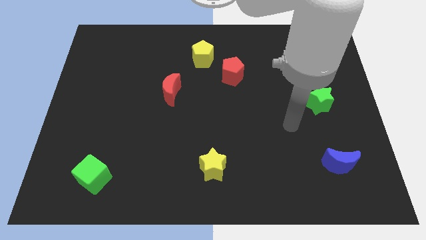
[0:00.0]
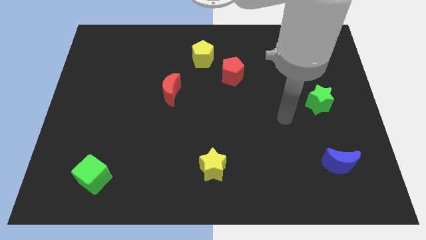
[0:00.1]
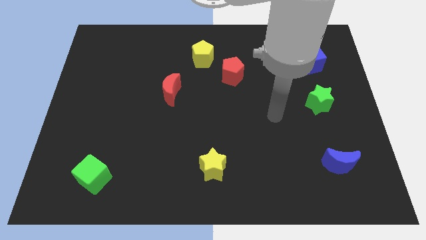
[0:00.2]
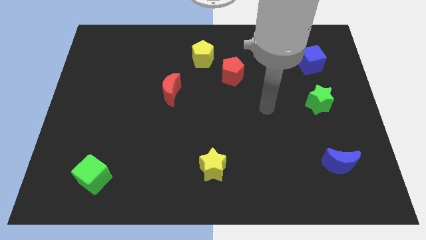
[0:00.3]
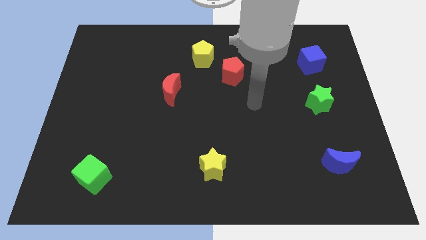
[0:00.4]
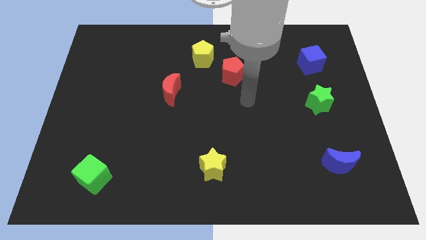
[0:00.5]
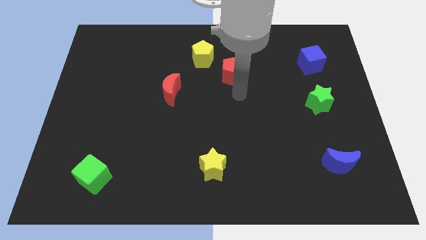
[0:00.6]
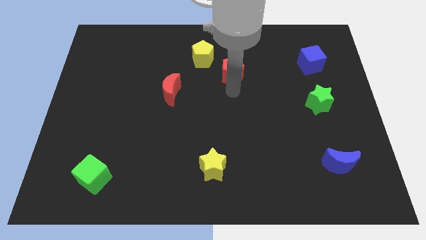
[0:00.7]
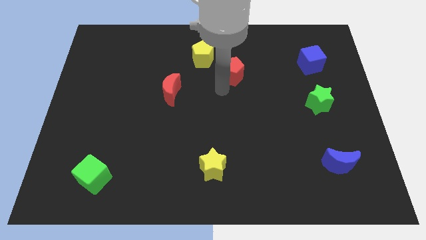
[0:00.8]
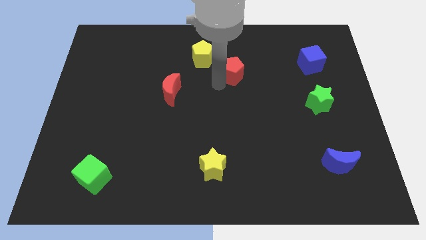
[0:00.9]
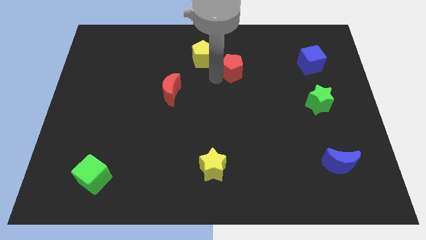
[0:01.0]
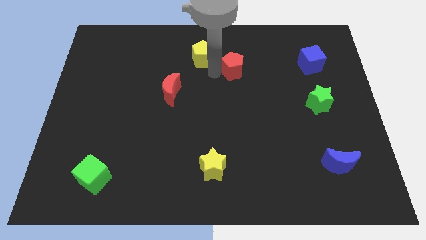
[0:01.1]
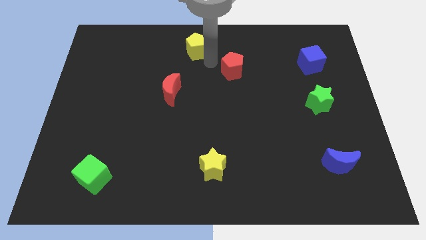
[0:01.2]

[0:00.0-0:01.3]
pull the red pentagon apart from the yellow pentagon

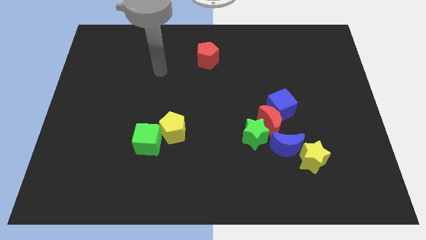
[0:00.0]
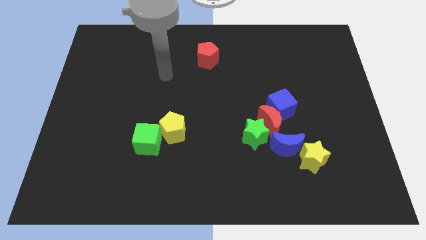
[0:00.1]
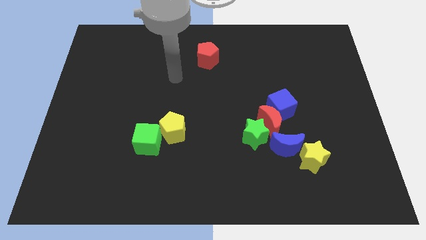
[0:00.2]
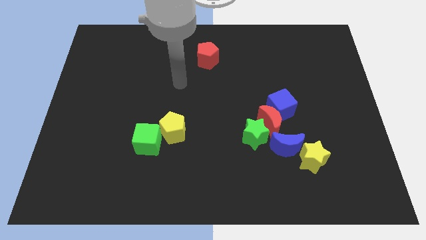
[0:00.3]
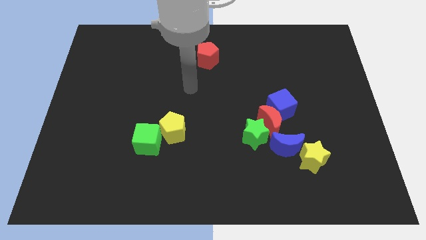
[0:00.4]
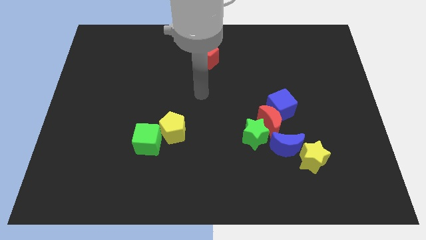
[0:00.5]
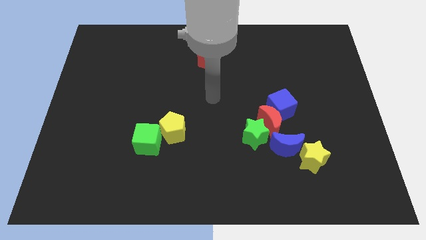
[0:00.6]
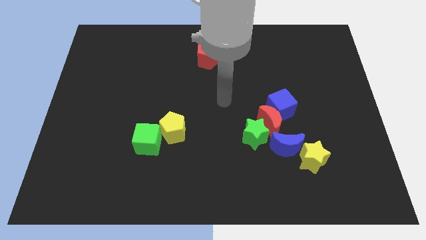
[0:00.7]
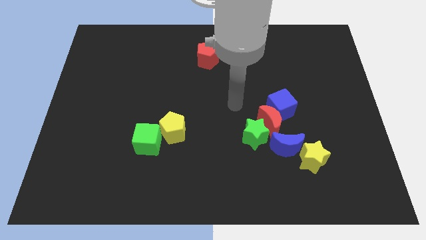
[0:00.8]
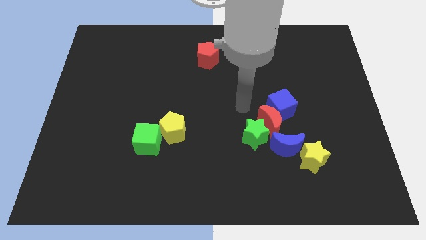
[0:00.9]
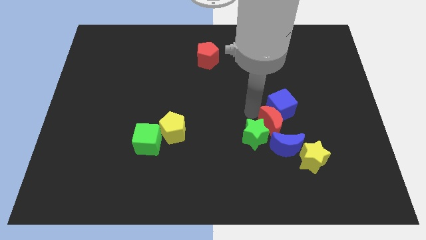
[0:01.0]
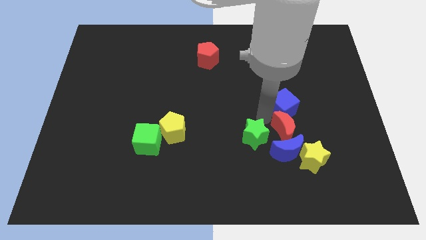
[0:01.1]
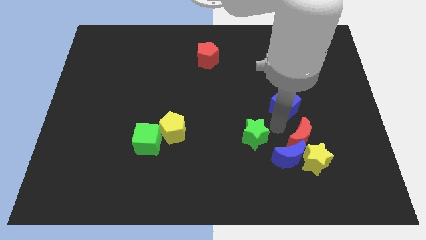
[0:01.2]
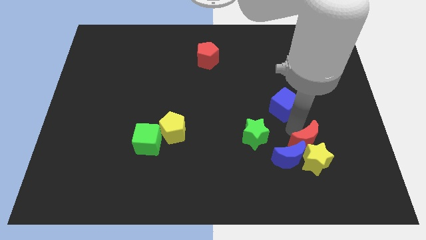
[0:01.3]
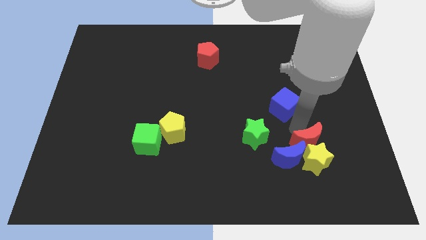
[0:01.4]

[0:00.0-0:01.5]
separate the blue cube from the red moon

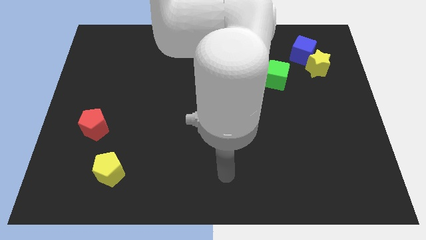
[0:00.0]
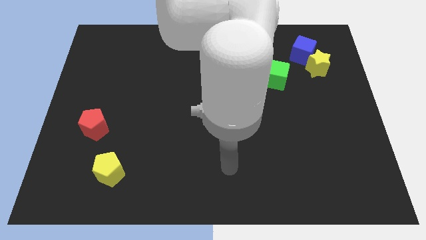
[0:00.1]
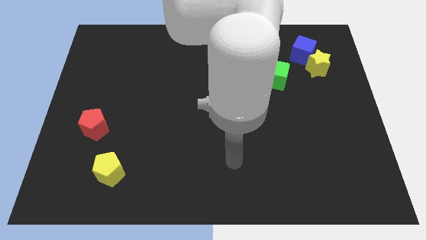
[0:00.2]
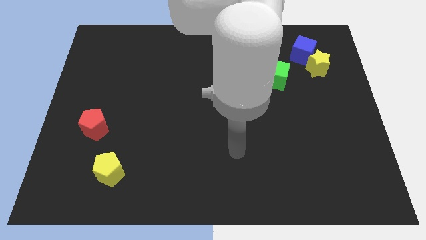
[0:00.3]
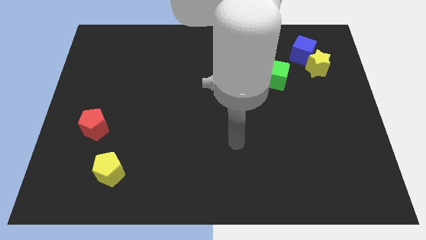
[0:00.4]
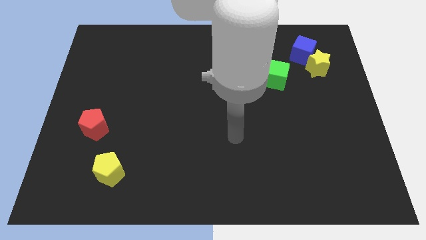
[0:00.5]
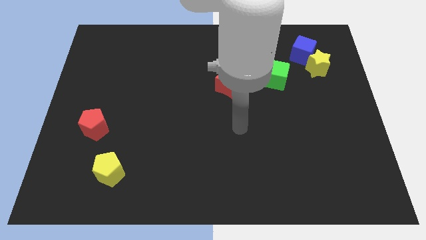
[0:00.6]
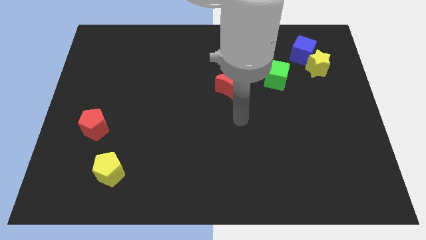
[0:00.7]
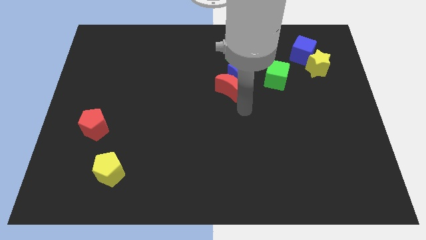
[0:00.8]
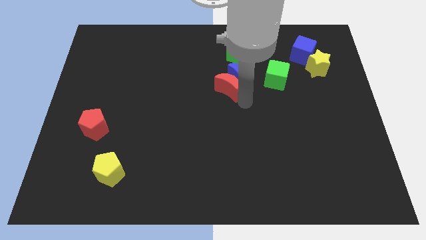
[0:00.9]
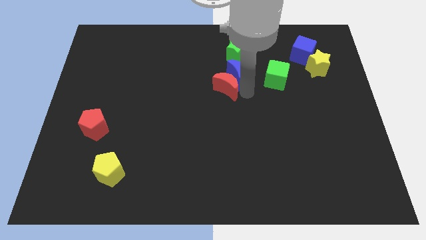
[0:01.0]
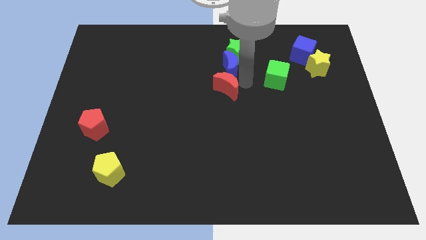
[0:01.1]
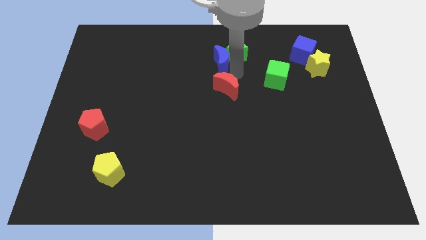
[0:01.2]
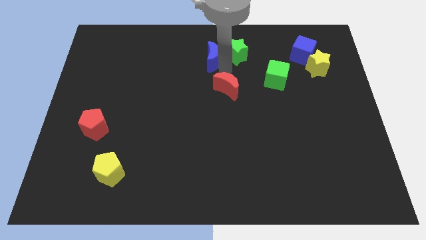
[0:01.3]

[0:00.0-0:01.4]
move the red moon away from the blue moon

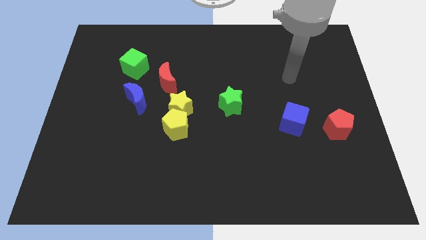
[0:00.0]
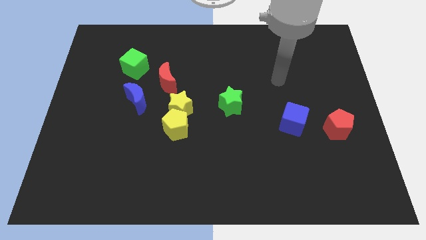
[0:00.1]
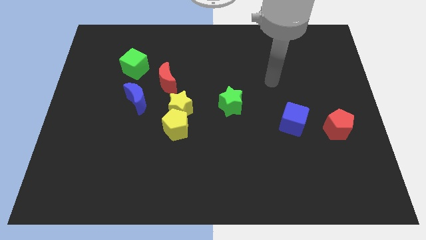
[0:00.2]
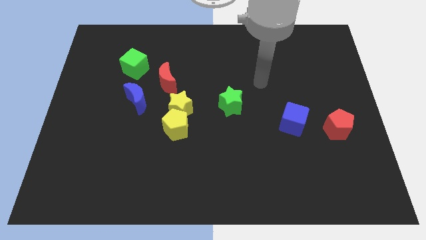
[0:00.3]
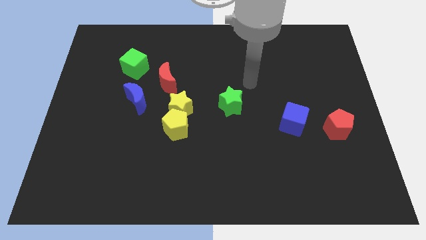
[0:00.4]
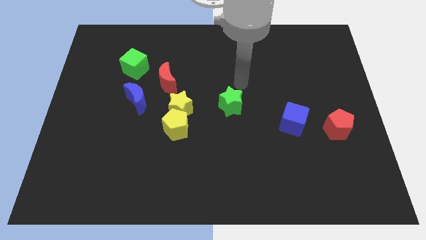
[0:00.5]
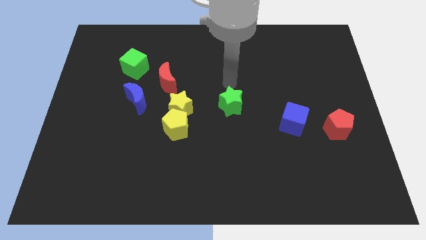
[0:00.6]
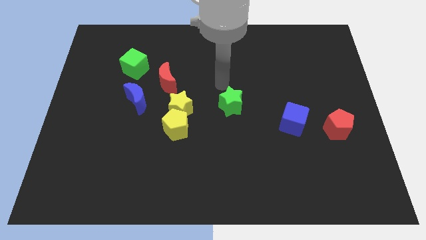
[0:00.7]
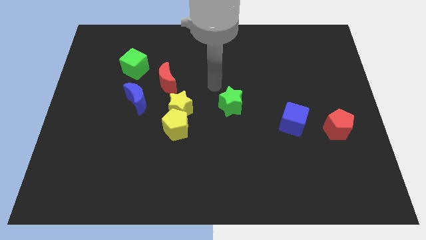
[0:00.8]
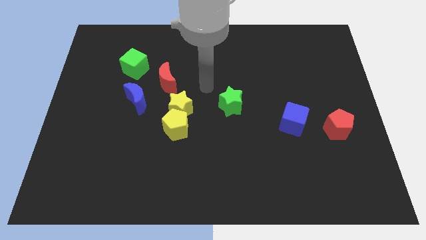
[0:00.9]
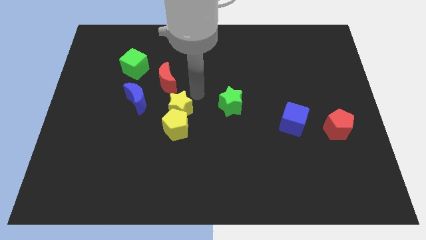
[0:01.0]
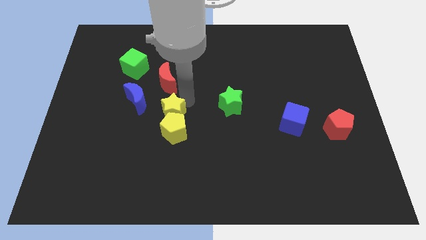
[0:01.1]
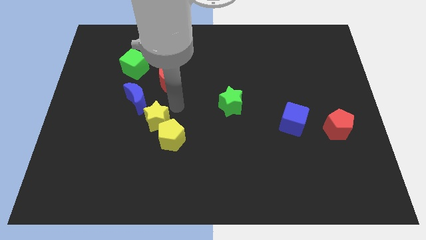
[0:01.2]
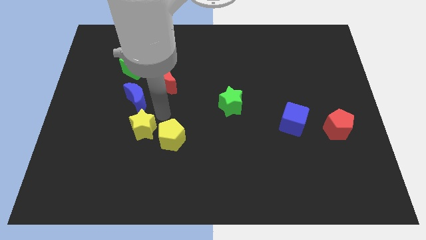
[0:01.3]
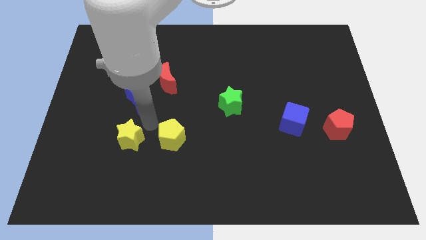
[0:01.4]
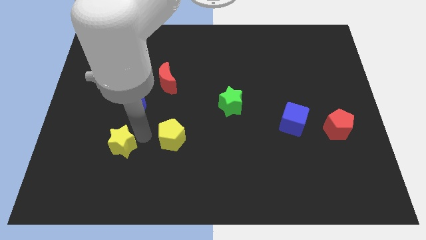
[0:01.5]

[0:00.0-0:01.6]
move the yellow pentagon away from the yellow star

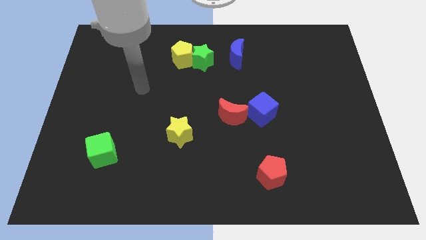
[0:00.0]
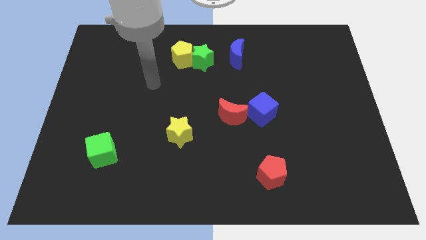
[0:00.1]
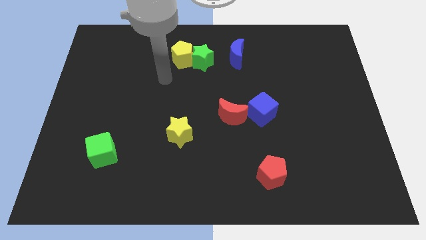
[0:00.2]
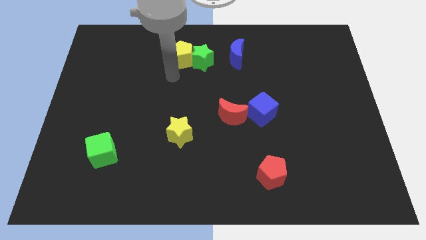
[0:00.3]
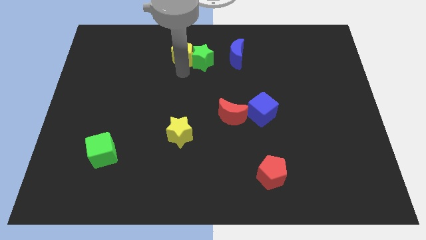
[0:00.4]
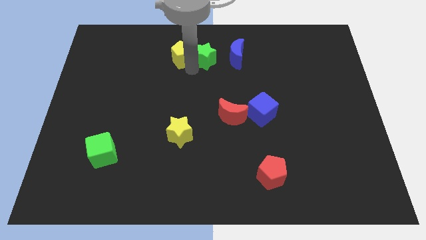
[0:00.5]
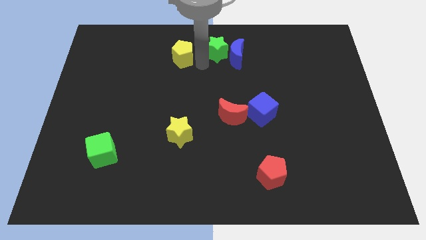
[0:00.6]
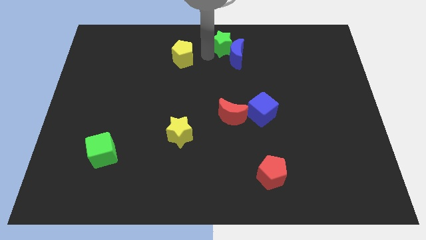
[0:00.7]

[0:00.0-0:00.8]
move the yellow pentagon away from the green star

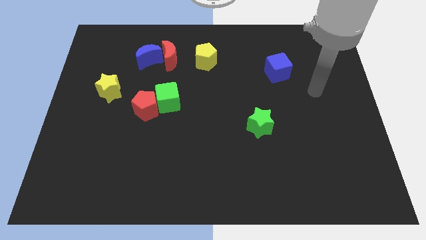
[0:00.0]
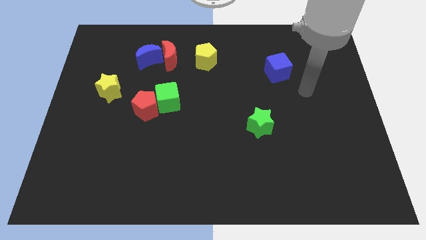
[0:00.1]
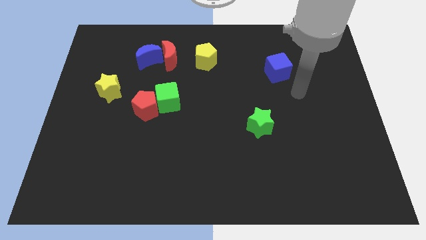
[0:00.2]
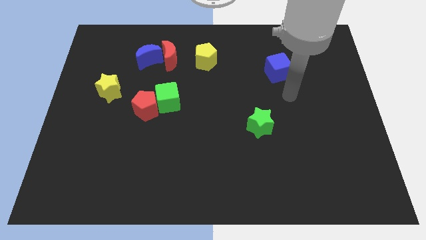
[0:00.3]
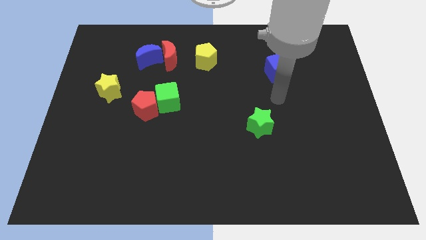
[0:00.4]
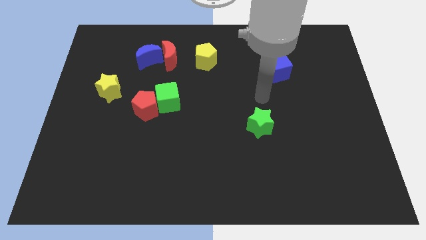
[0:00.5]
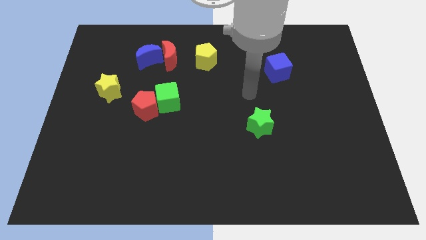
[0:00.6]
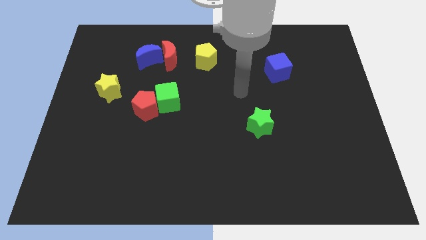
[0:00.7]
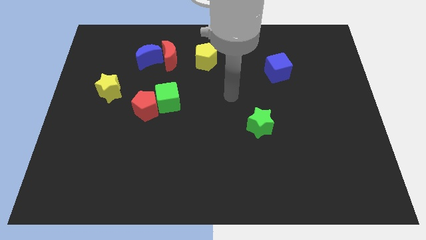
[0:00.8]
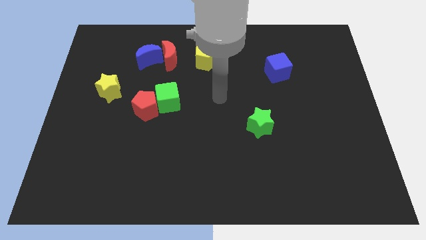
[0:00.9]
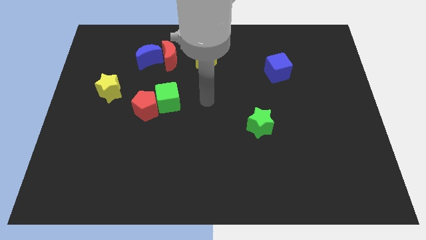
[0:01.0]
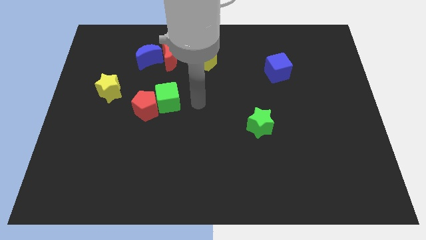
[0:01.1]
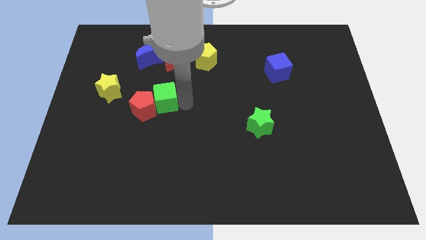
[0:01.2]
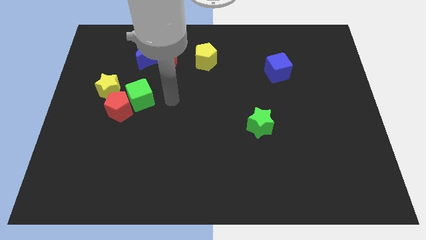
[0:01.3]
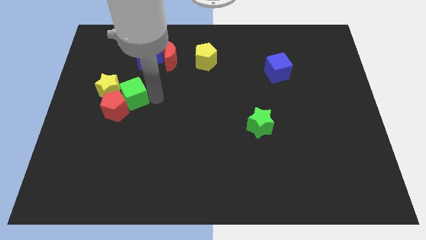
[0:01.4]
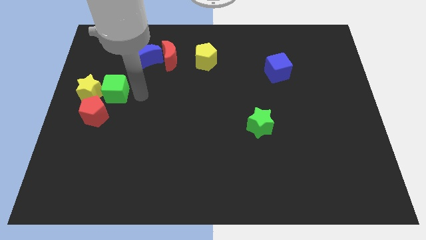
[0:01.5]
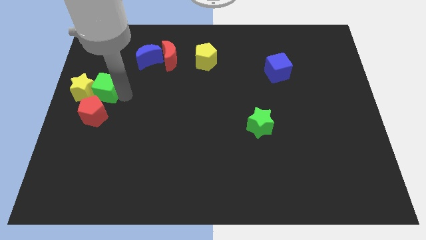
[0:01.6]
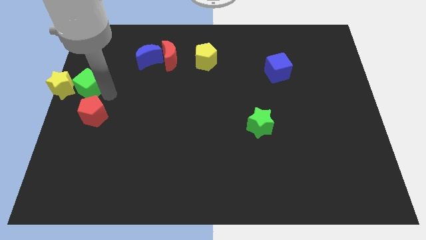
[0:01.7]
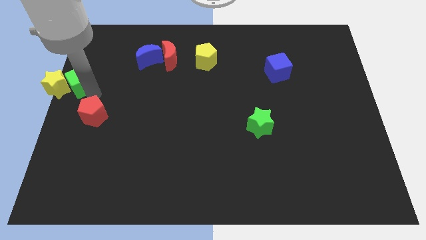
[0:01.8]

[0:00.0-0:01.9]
move the red pentagon away from the green cube

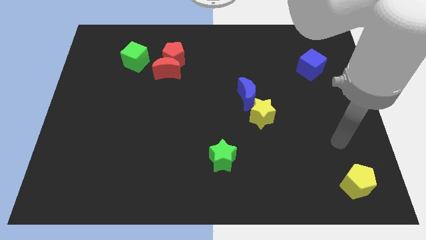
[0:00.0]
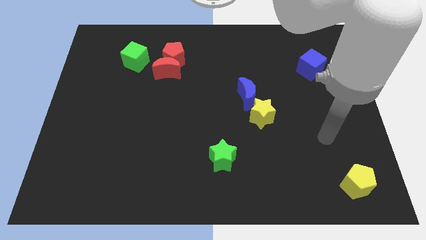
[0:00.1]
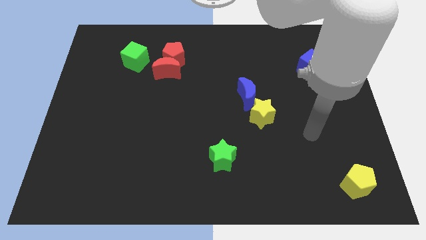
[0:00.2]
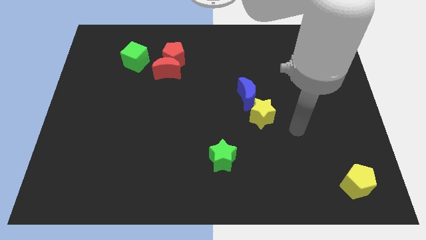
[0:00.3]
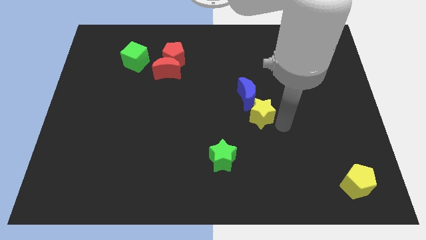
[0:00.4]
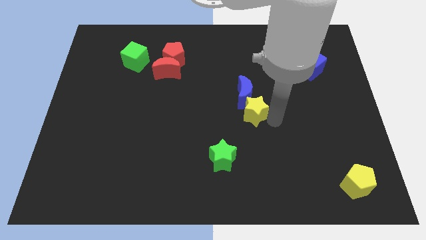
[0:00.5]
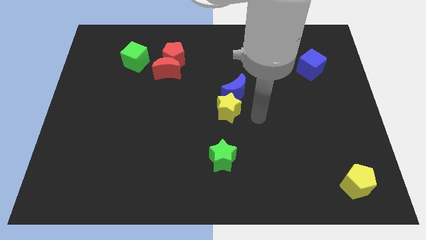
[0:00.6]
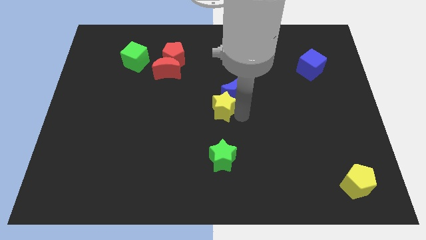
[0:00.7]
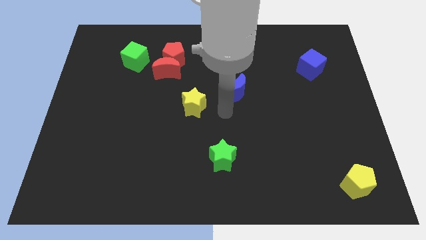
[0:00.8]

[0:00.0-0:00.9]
separate the blue moon from the yellow star
